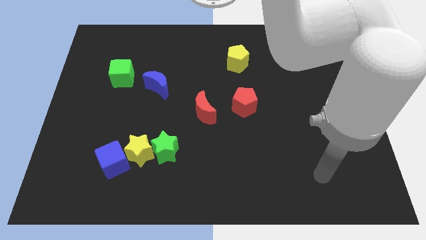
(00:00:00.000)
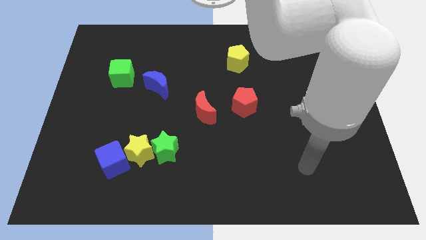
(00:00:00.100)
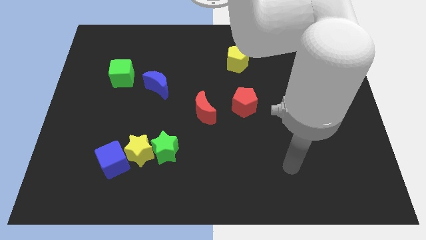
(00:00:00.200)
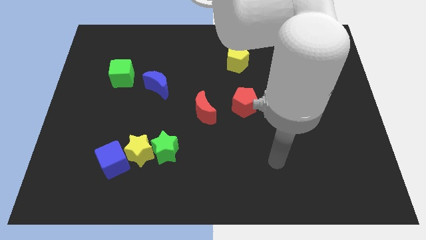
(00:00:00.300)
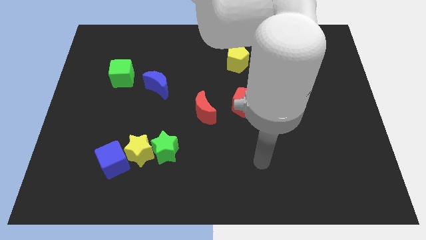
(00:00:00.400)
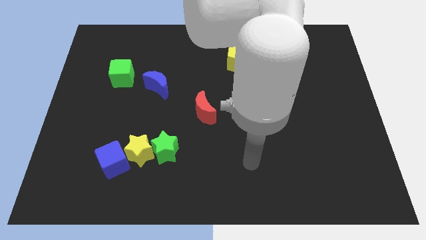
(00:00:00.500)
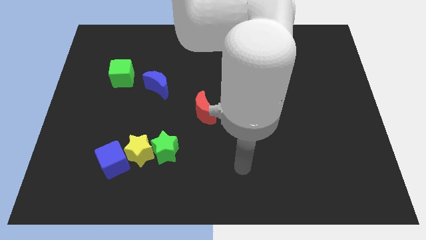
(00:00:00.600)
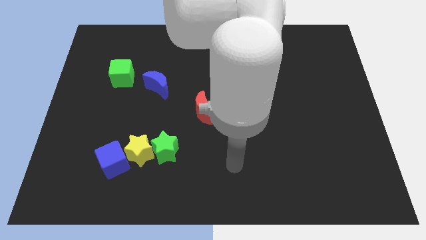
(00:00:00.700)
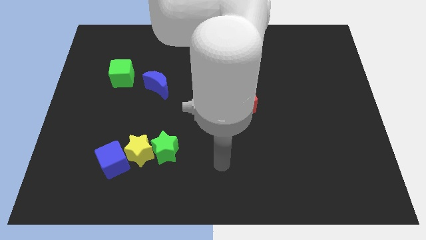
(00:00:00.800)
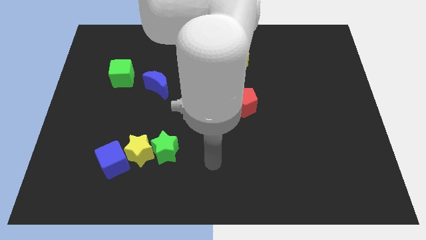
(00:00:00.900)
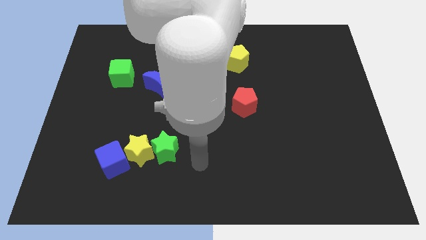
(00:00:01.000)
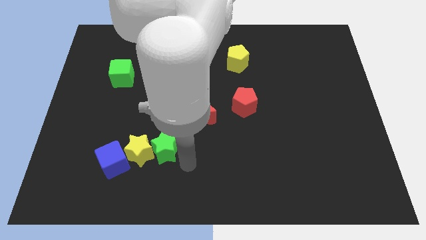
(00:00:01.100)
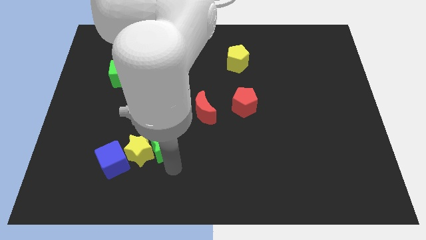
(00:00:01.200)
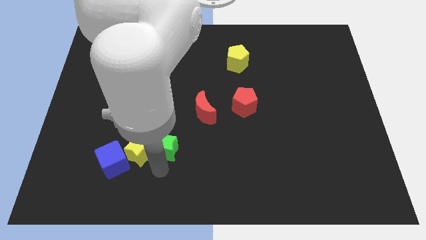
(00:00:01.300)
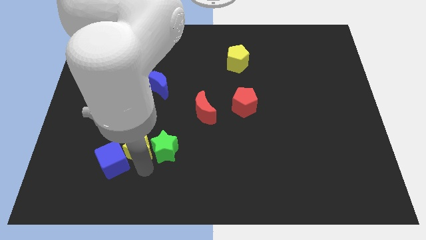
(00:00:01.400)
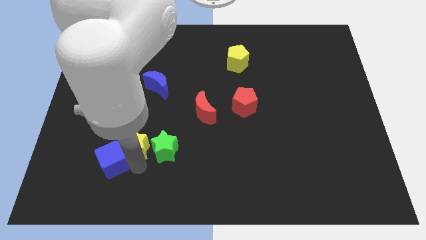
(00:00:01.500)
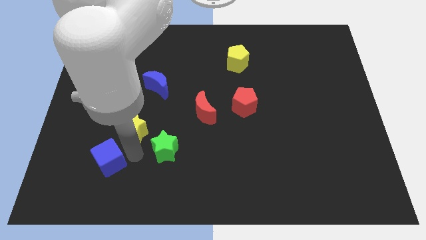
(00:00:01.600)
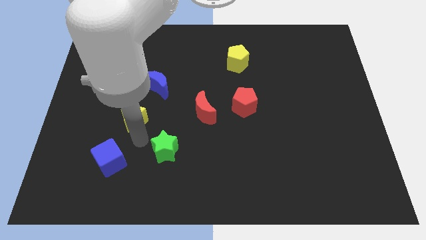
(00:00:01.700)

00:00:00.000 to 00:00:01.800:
move the green star away from the yellow star

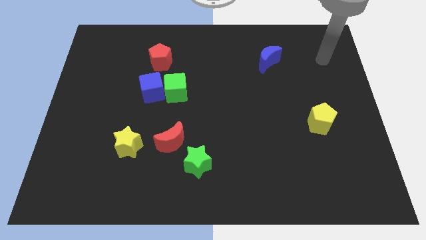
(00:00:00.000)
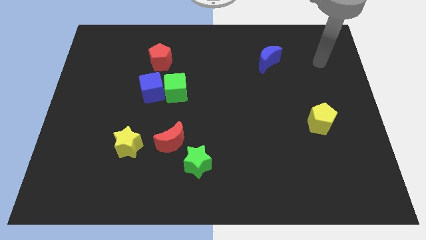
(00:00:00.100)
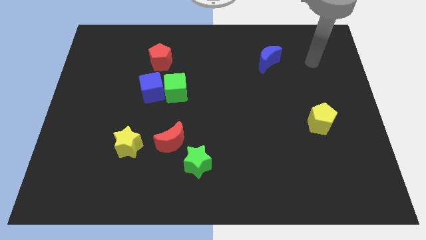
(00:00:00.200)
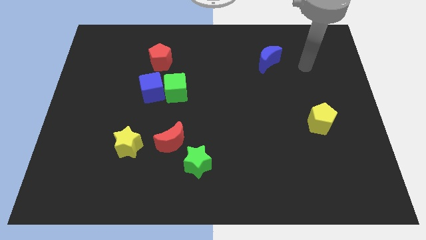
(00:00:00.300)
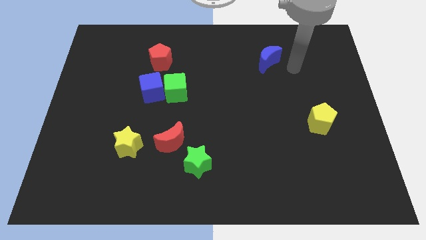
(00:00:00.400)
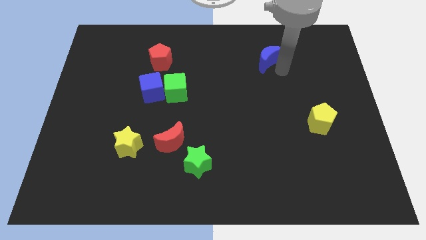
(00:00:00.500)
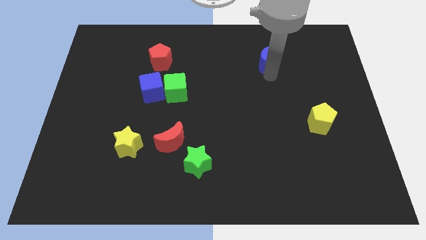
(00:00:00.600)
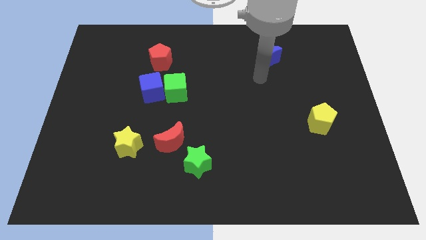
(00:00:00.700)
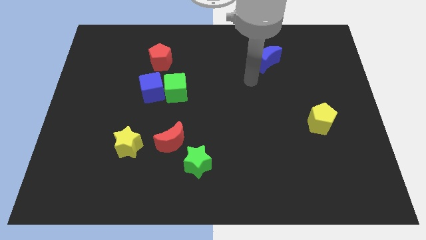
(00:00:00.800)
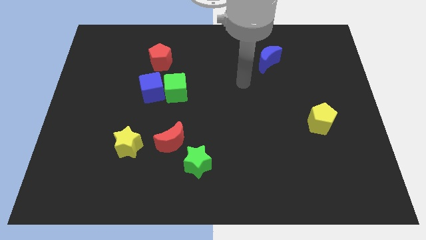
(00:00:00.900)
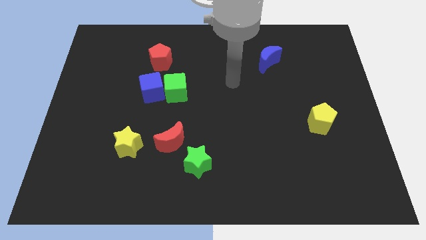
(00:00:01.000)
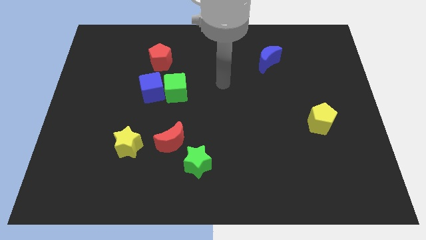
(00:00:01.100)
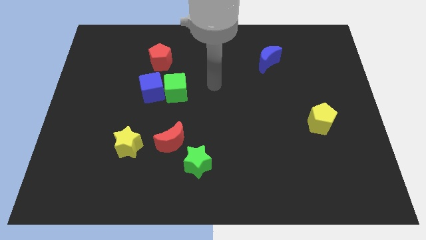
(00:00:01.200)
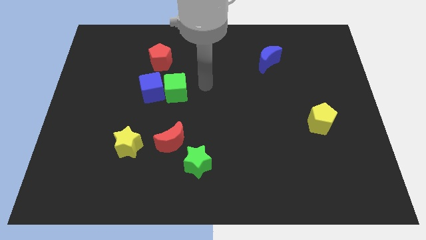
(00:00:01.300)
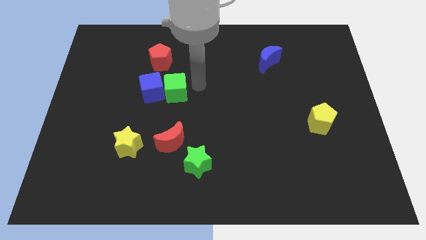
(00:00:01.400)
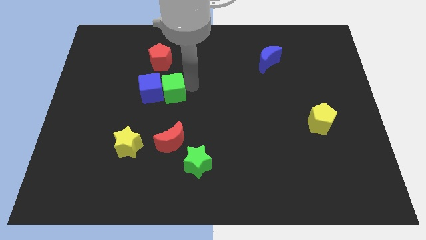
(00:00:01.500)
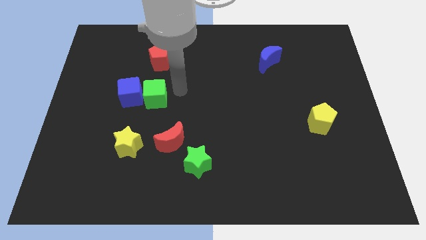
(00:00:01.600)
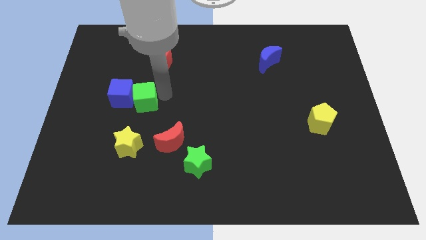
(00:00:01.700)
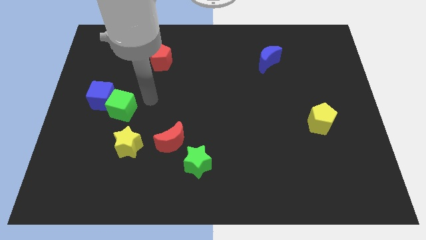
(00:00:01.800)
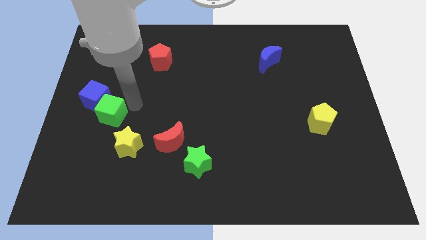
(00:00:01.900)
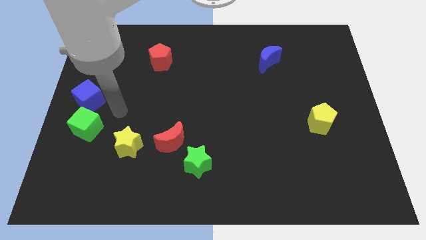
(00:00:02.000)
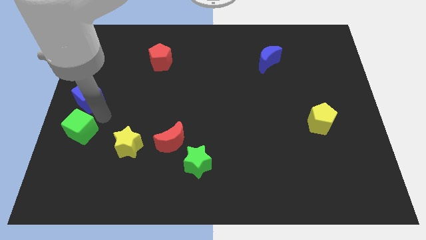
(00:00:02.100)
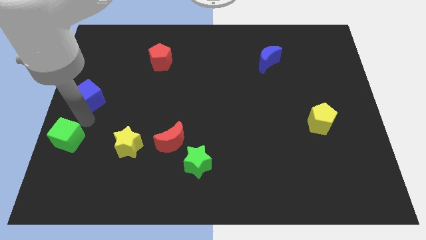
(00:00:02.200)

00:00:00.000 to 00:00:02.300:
pull the blue cube apart from the green cube

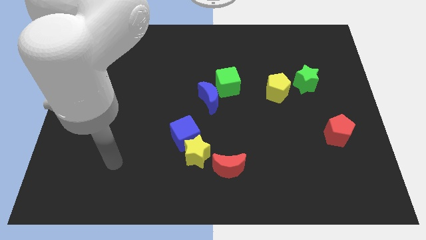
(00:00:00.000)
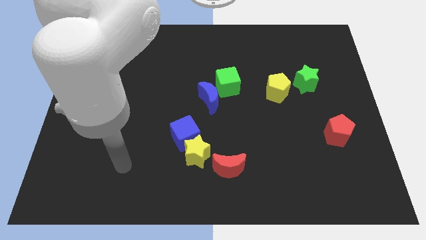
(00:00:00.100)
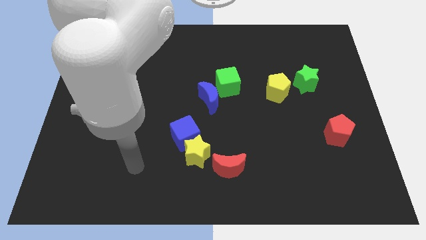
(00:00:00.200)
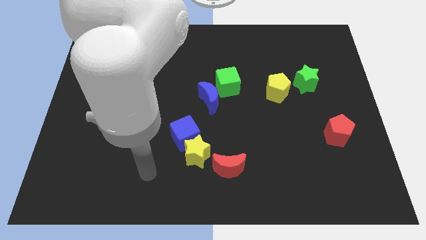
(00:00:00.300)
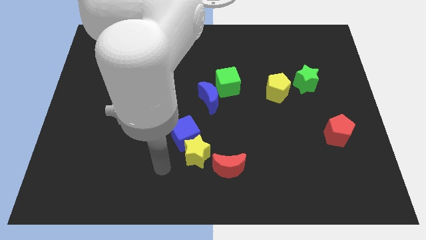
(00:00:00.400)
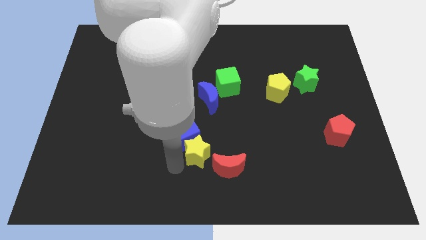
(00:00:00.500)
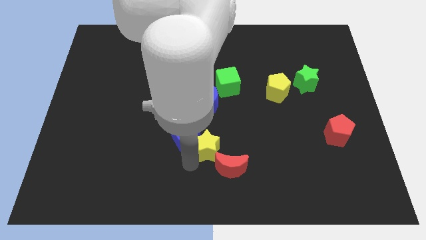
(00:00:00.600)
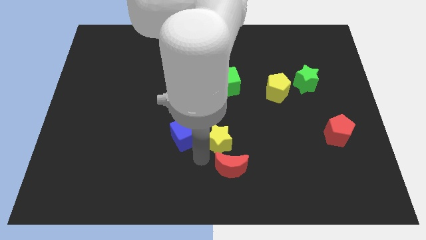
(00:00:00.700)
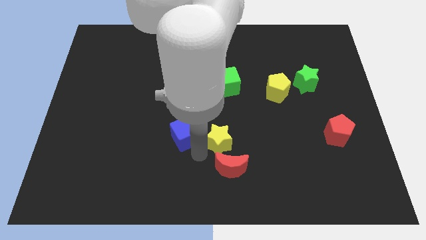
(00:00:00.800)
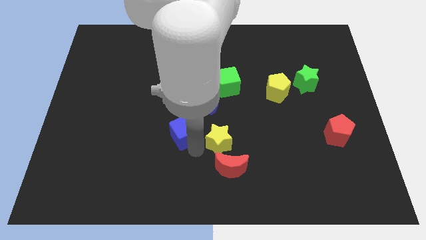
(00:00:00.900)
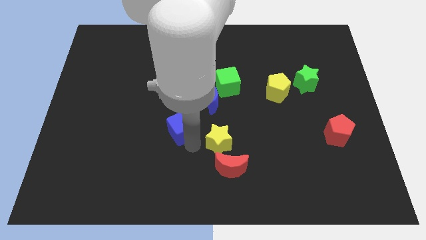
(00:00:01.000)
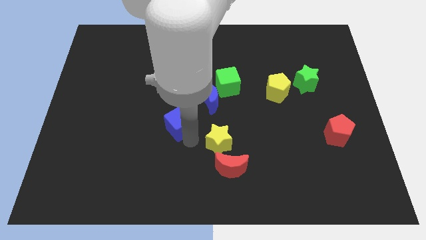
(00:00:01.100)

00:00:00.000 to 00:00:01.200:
move the blue cube away from the yellow star

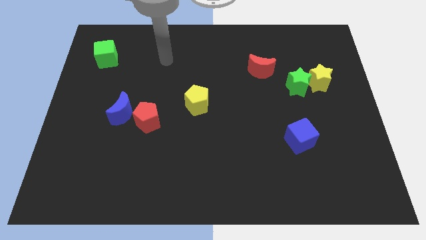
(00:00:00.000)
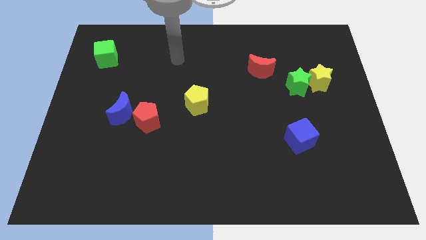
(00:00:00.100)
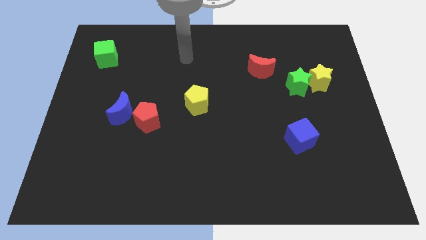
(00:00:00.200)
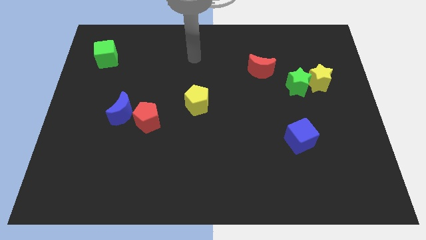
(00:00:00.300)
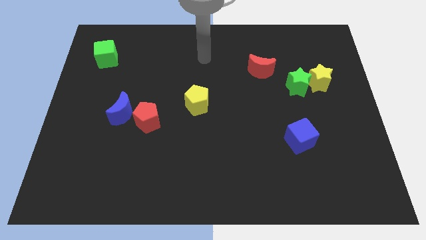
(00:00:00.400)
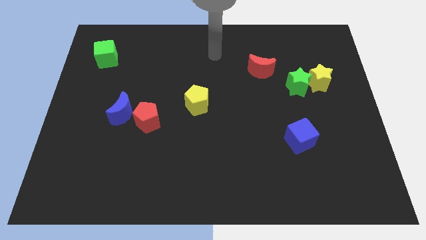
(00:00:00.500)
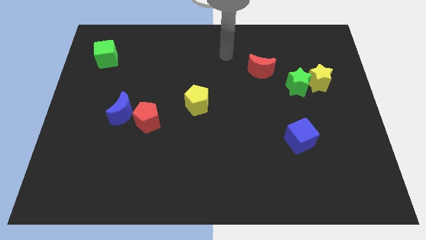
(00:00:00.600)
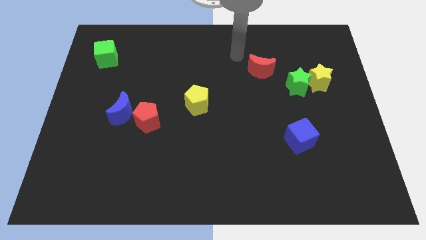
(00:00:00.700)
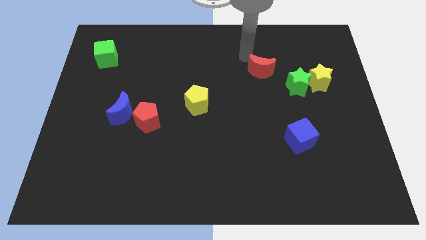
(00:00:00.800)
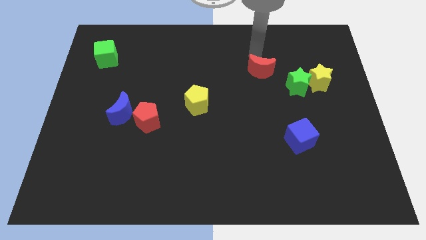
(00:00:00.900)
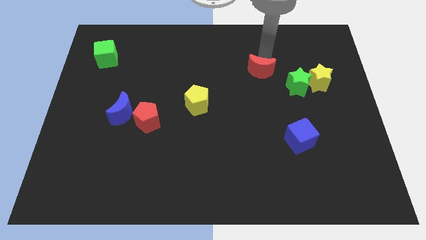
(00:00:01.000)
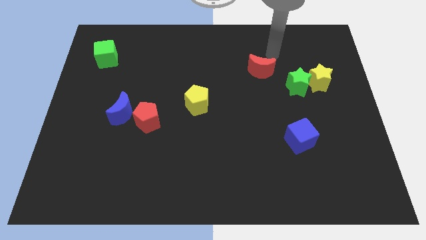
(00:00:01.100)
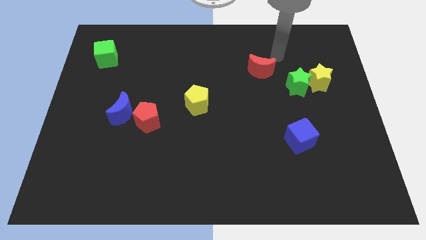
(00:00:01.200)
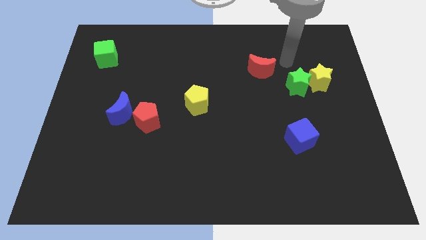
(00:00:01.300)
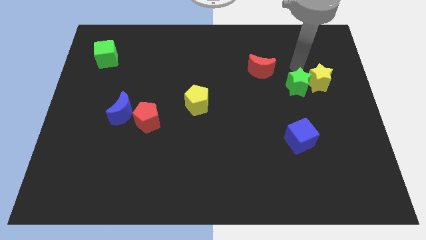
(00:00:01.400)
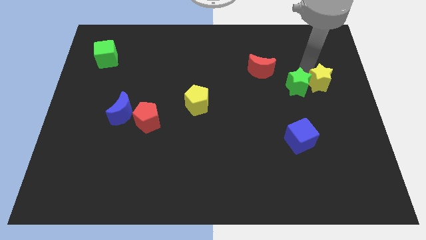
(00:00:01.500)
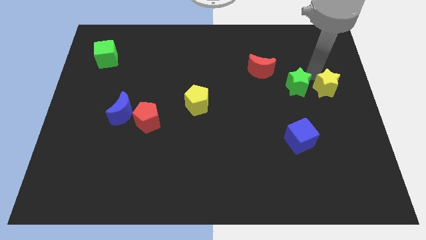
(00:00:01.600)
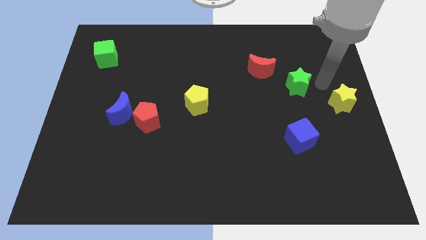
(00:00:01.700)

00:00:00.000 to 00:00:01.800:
pull the green star apart from the yellow star

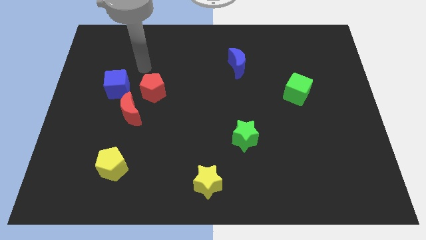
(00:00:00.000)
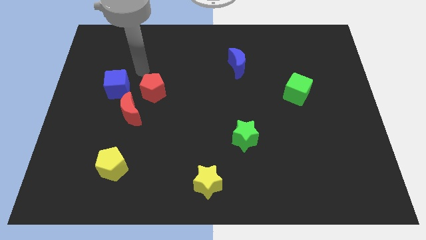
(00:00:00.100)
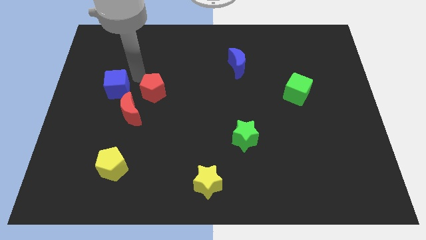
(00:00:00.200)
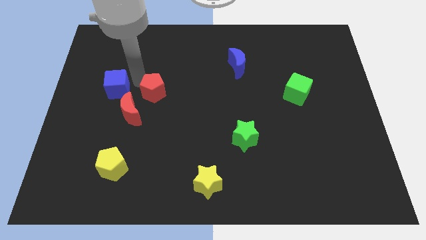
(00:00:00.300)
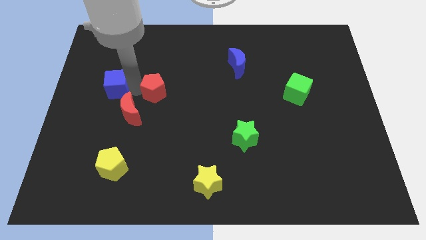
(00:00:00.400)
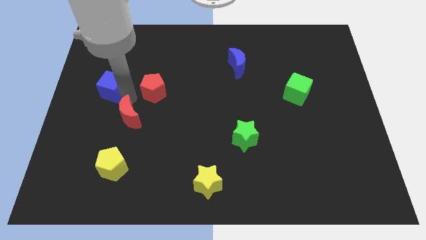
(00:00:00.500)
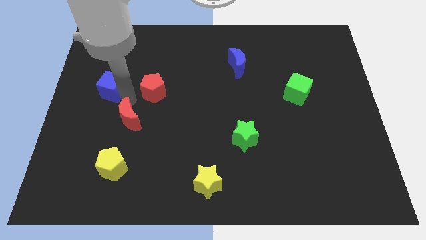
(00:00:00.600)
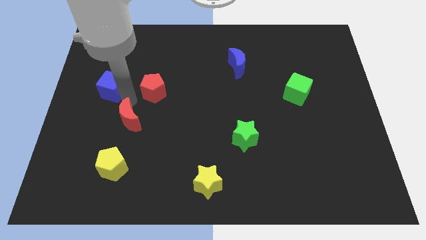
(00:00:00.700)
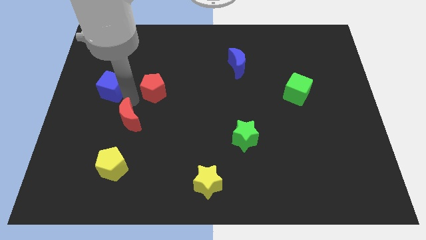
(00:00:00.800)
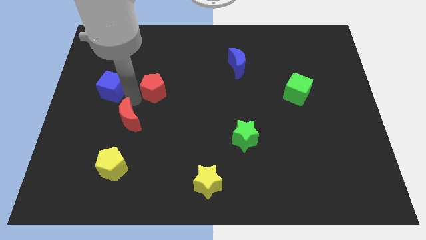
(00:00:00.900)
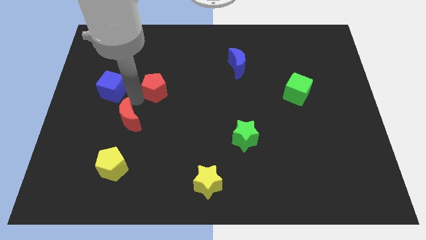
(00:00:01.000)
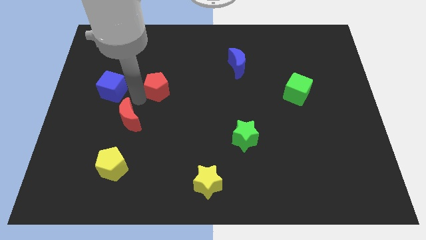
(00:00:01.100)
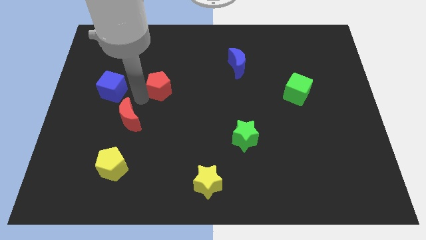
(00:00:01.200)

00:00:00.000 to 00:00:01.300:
pull the red pentagon apart from the red moon and blue cube

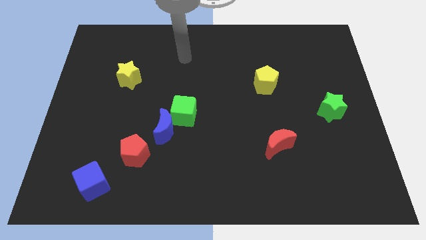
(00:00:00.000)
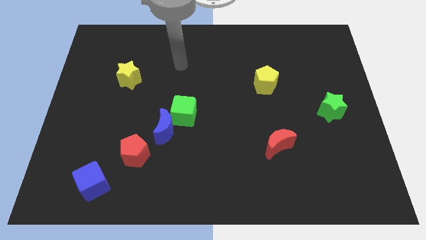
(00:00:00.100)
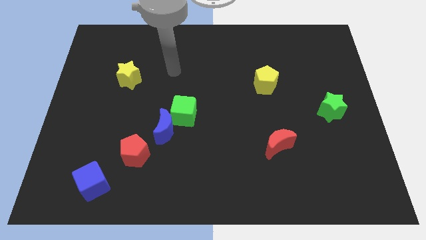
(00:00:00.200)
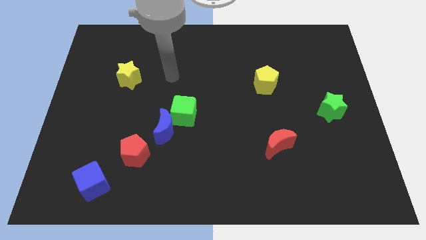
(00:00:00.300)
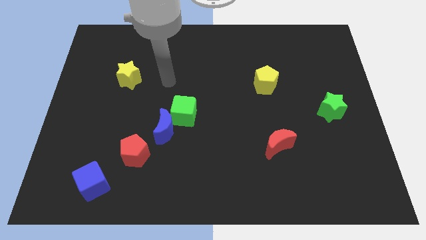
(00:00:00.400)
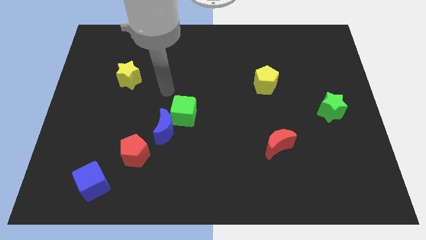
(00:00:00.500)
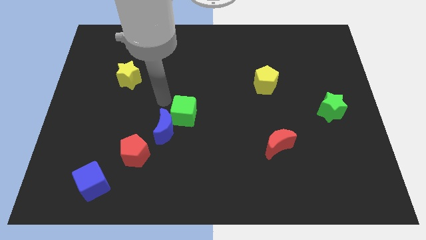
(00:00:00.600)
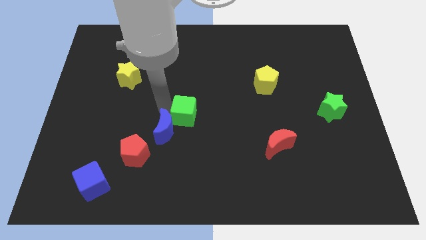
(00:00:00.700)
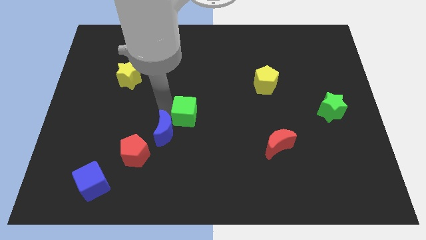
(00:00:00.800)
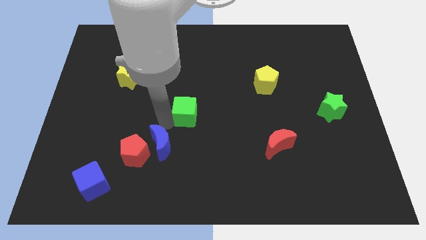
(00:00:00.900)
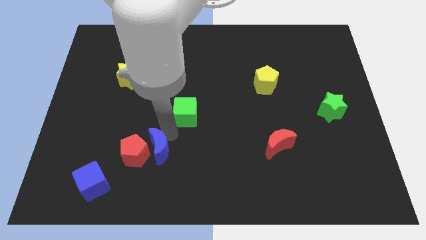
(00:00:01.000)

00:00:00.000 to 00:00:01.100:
pull the green cube apart from the blue moon
